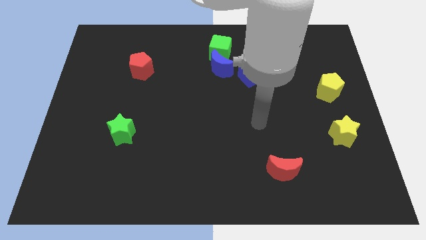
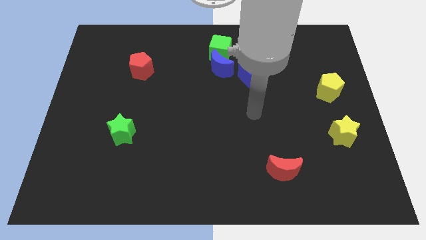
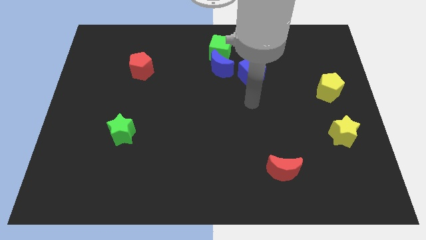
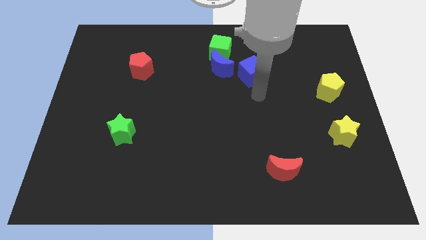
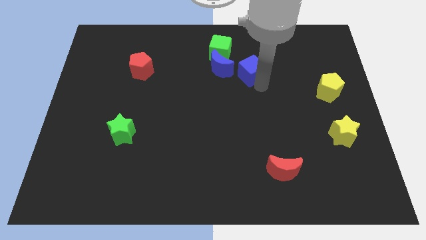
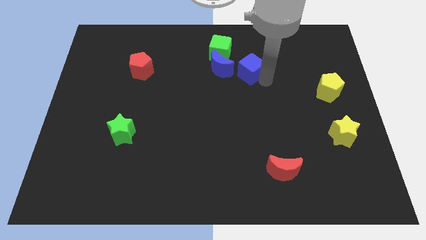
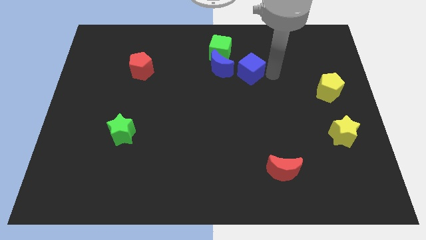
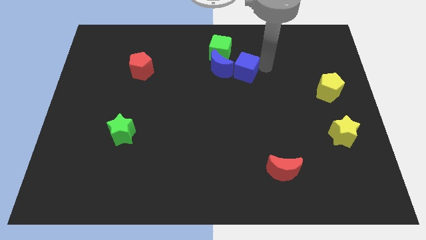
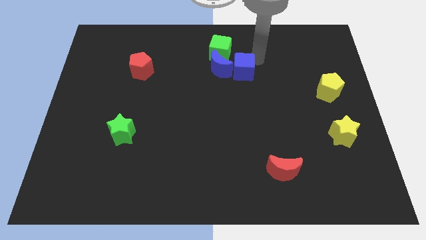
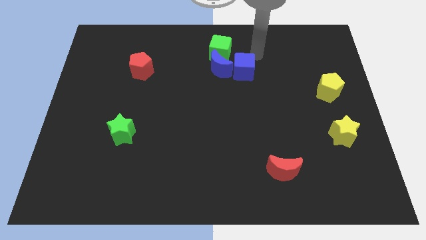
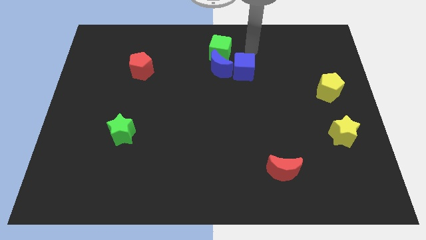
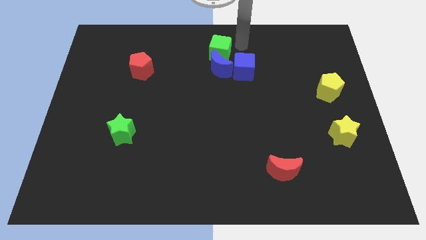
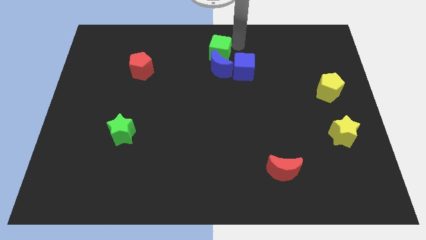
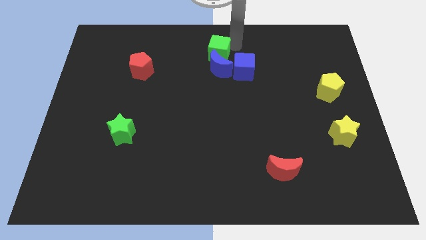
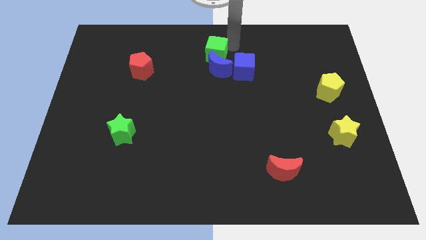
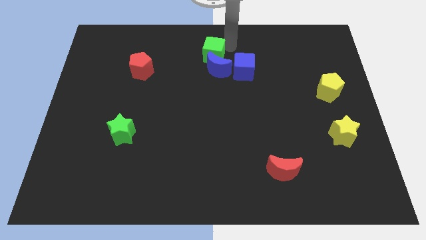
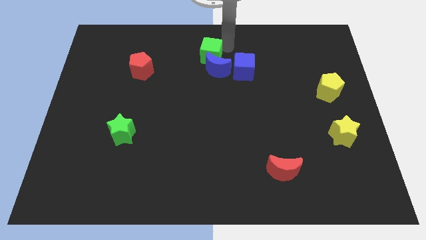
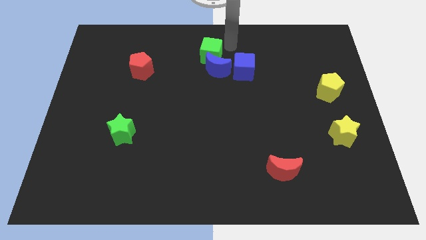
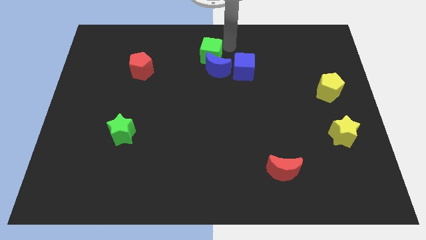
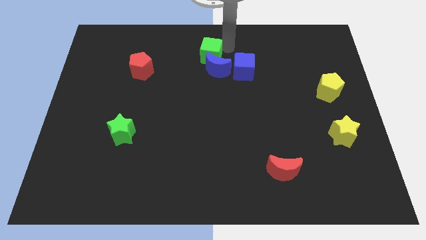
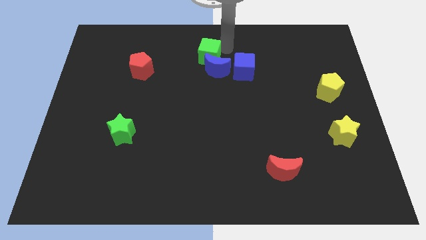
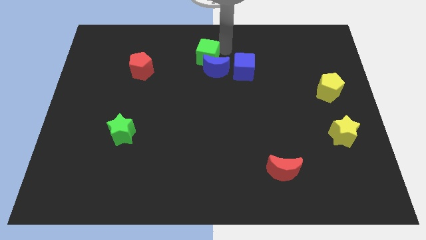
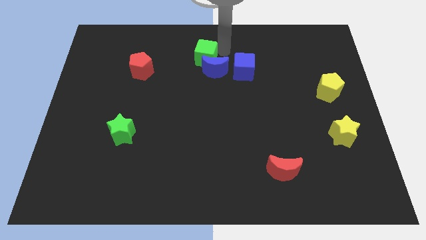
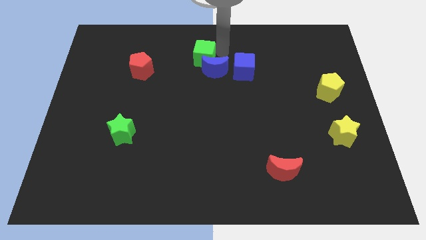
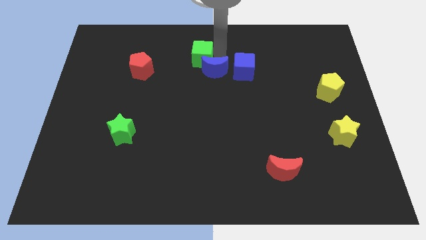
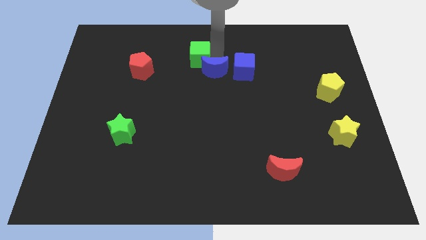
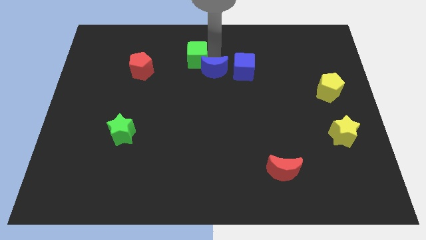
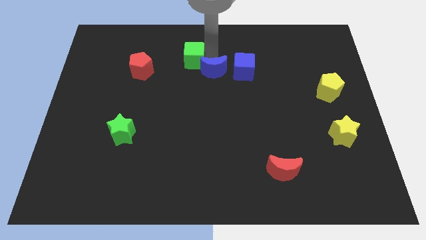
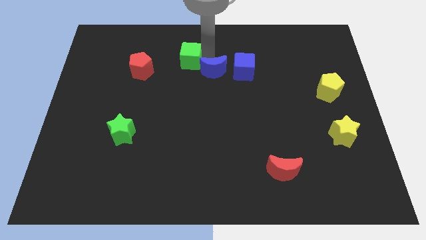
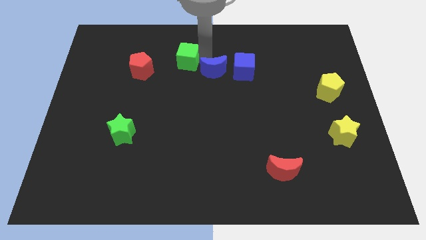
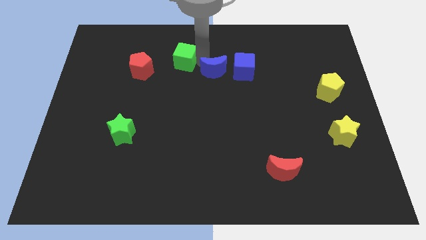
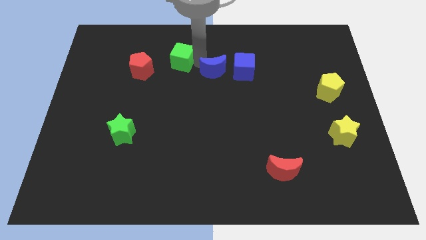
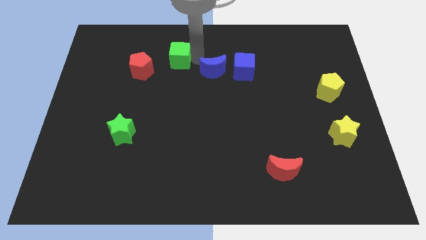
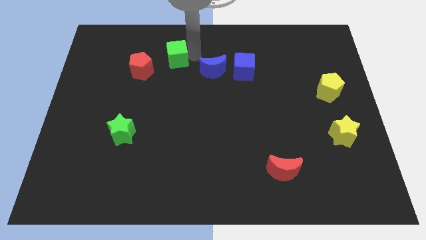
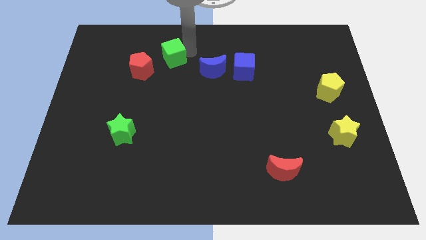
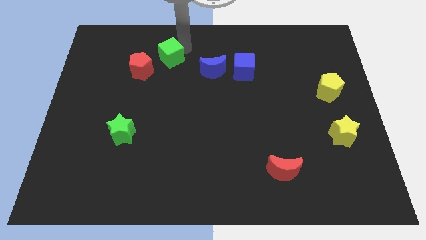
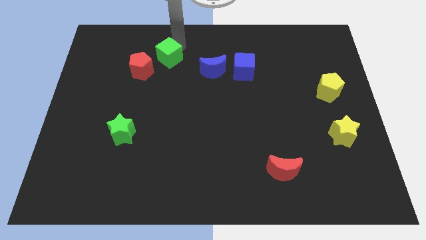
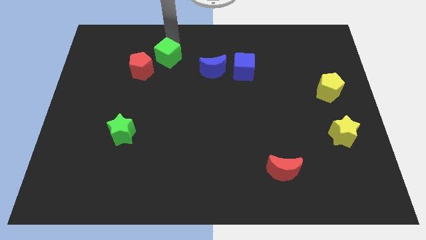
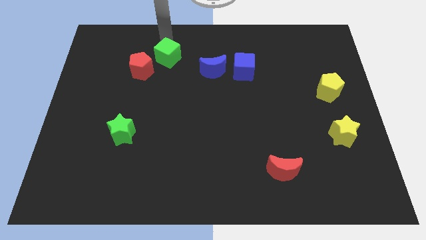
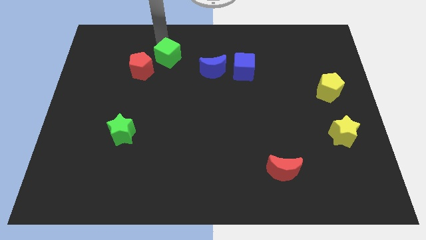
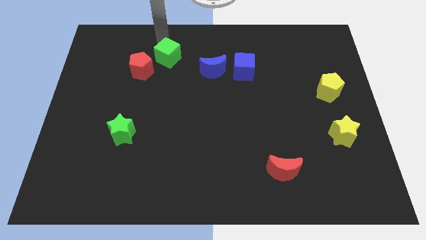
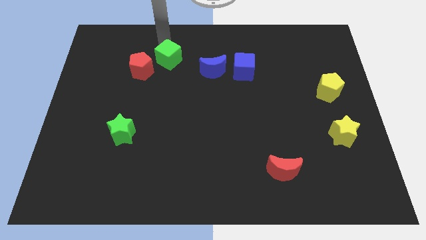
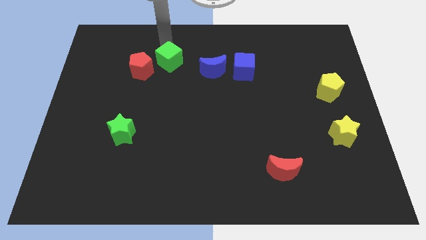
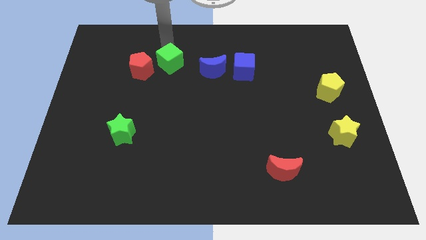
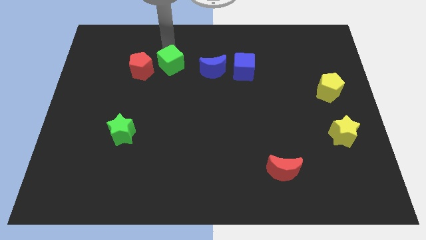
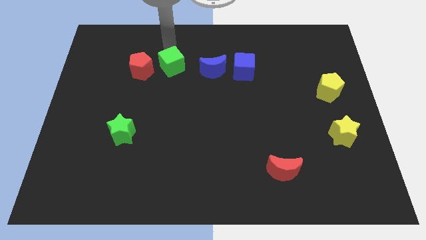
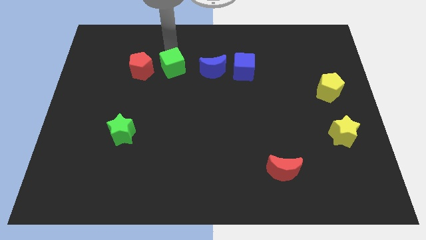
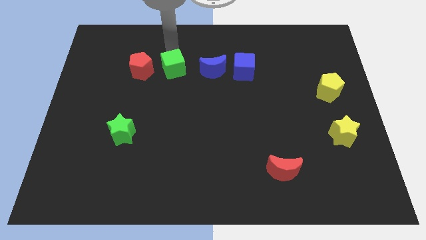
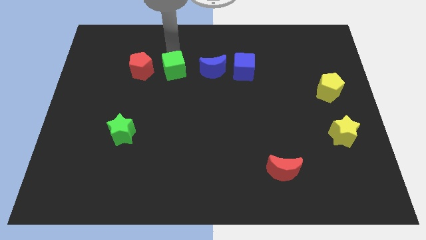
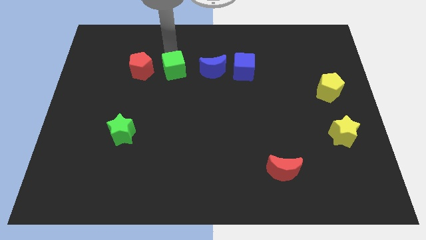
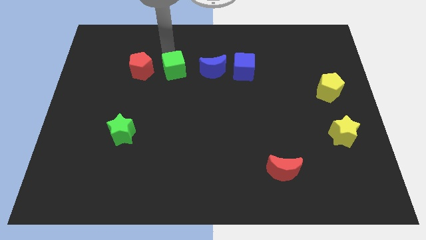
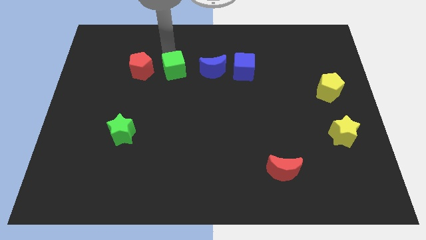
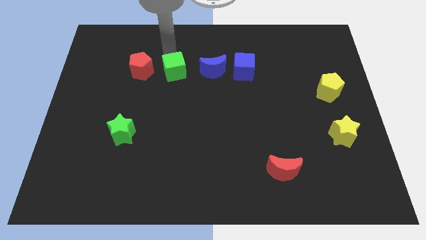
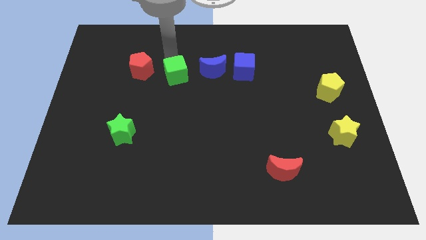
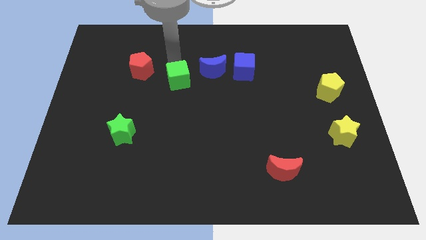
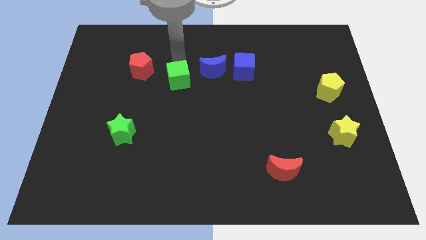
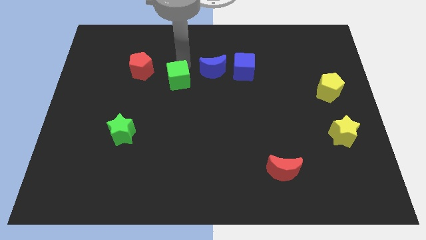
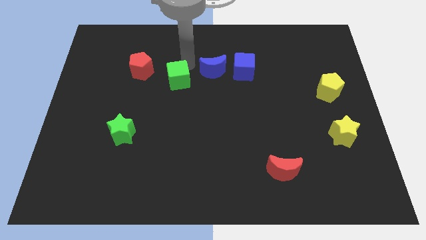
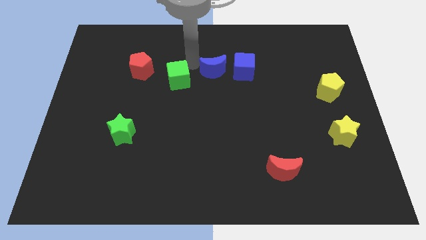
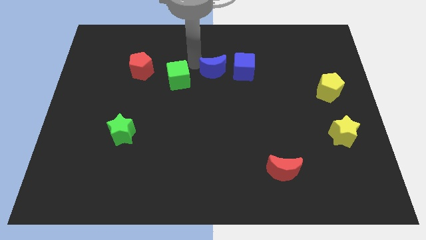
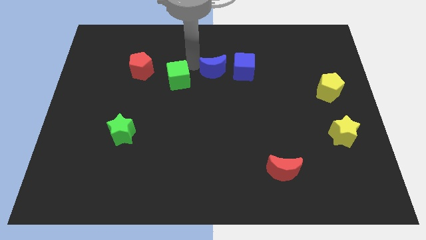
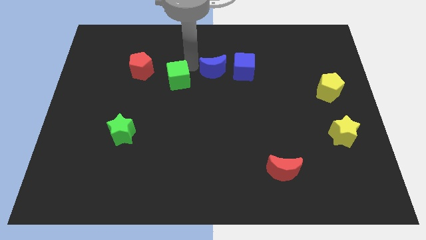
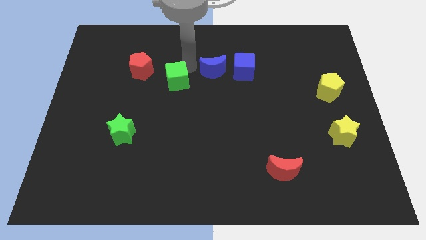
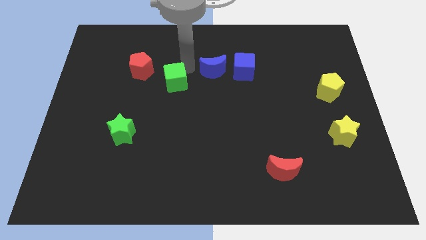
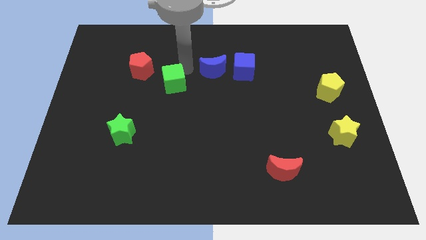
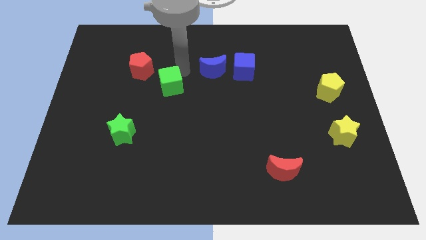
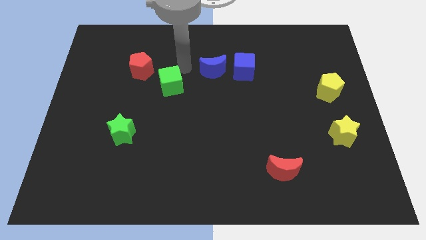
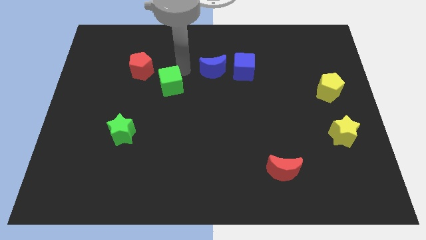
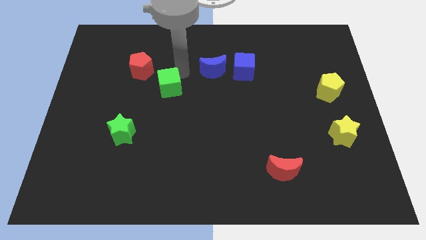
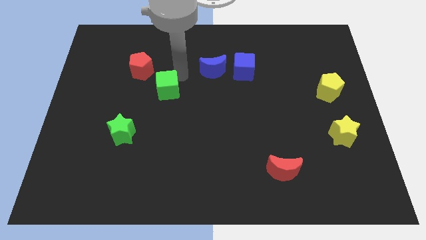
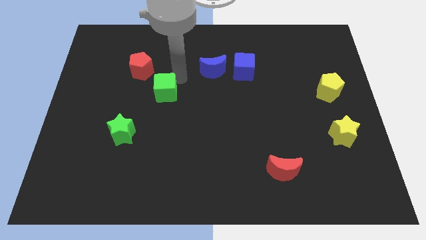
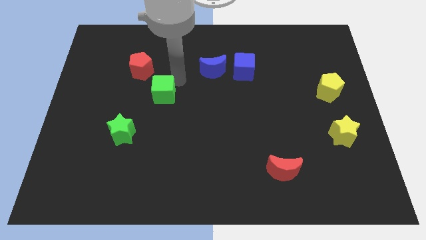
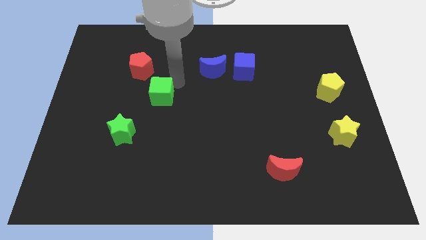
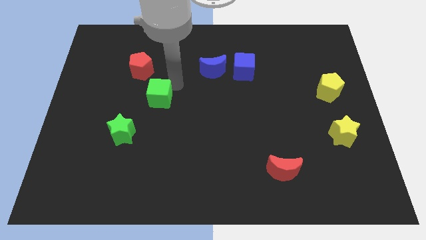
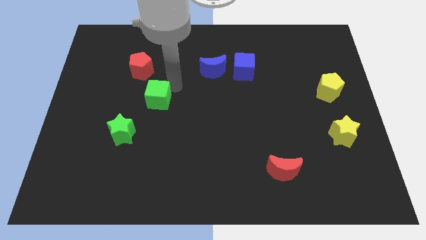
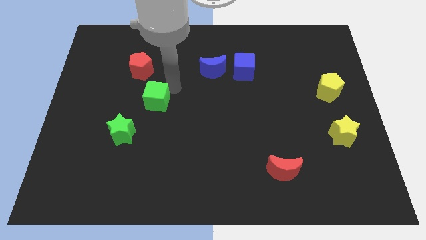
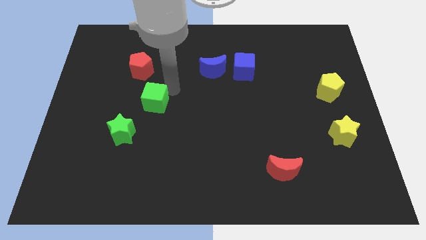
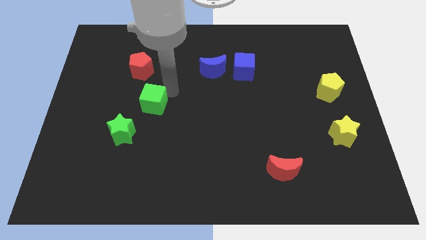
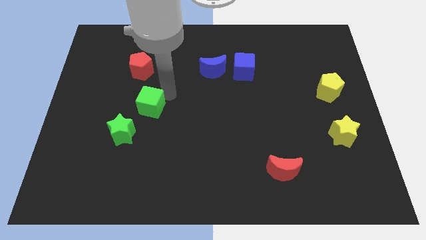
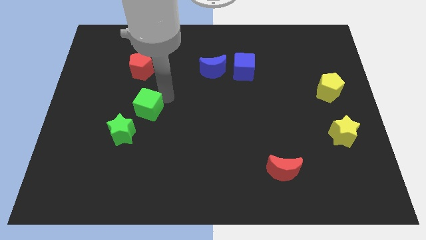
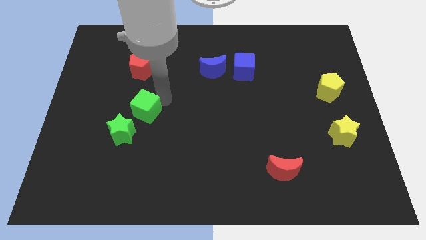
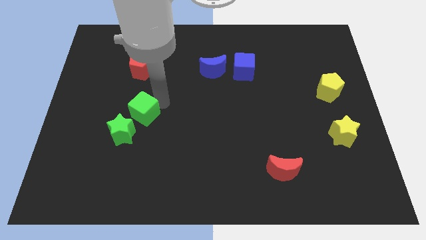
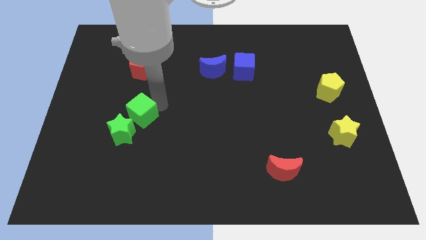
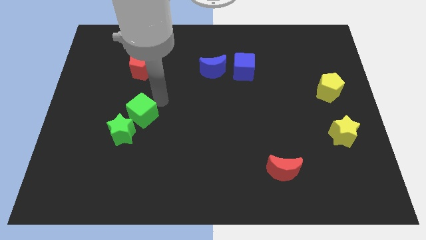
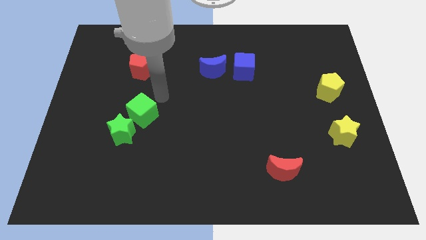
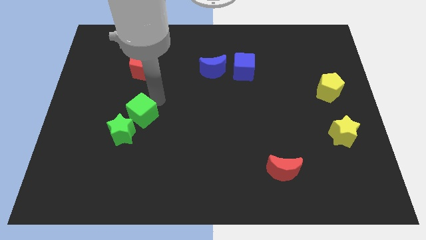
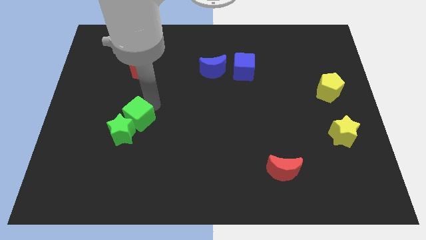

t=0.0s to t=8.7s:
push the green cube towards the green star
